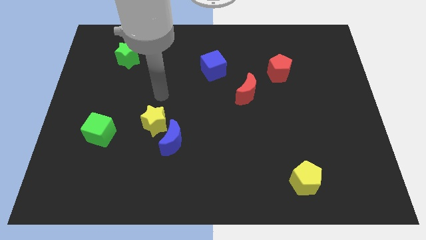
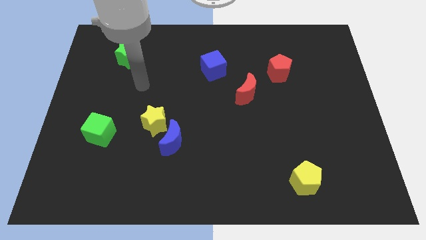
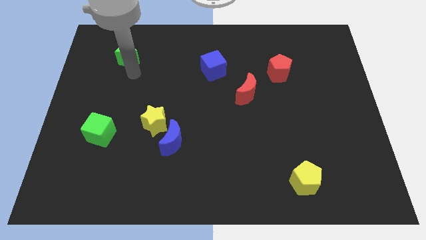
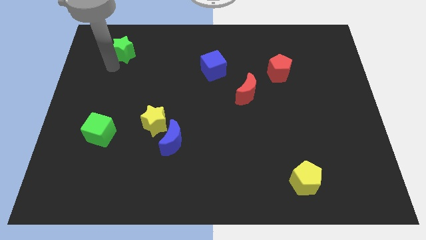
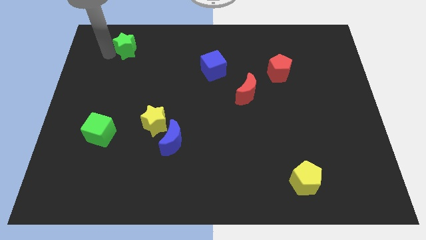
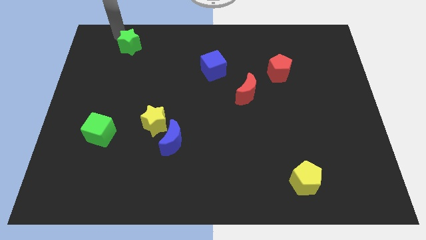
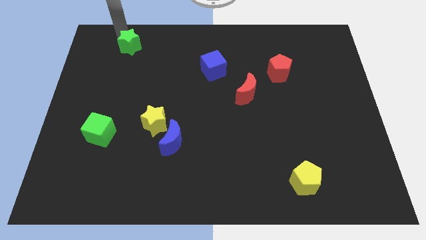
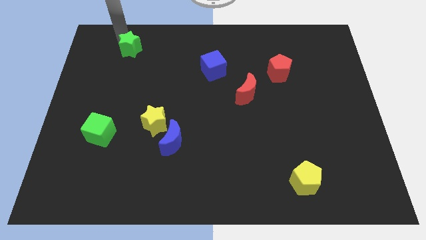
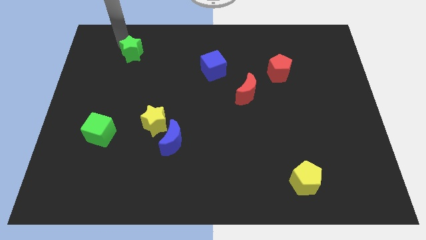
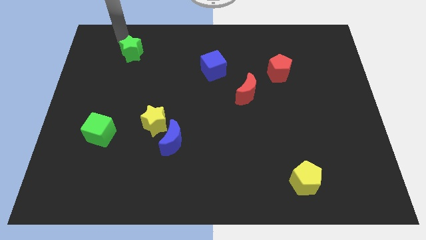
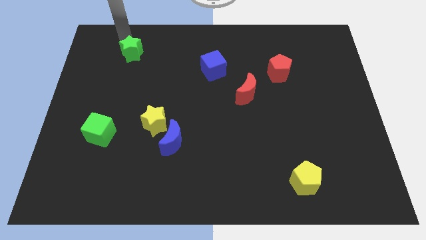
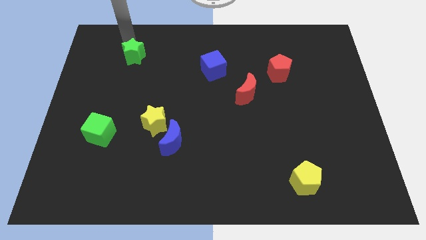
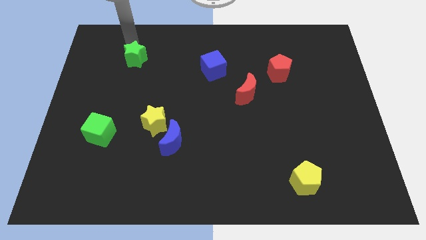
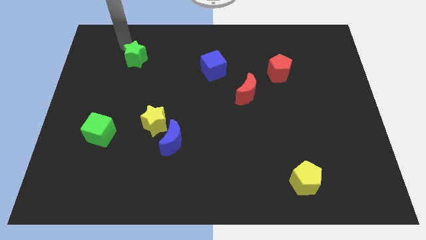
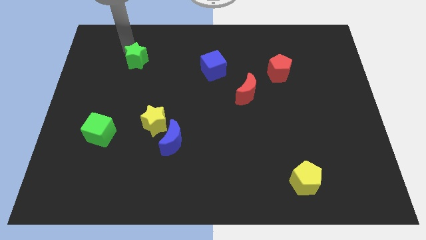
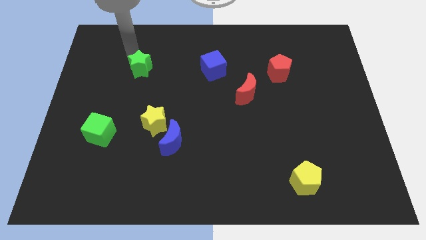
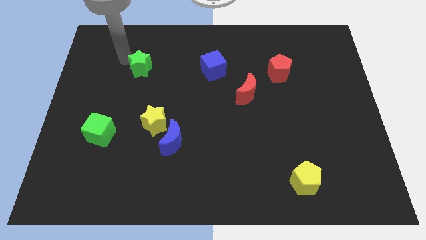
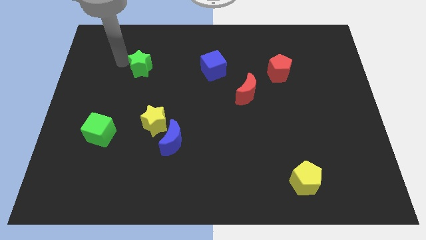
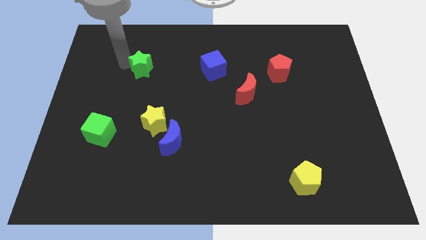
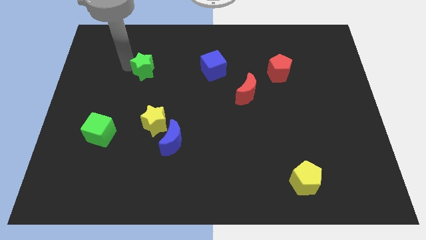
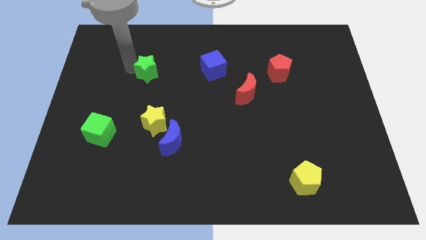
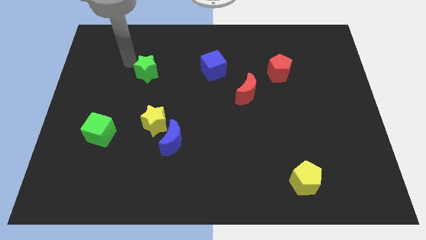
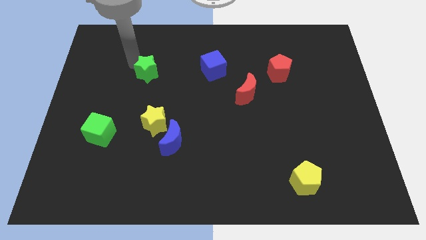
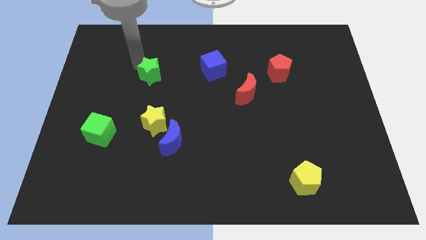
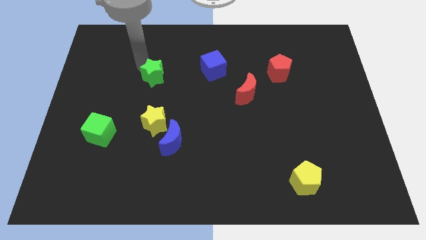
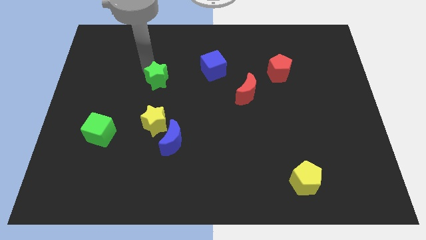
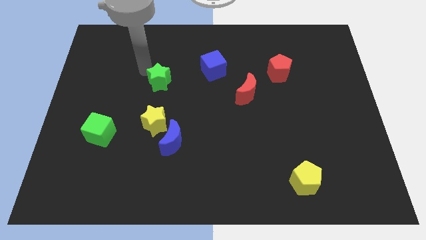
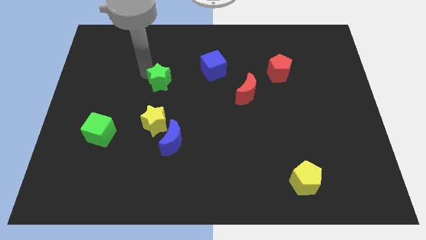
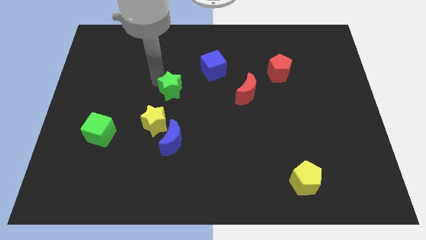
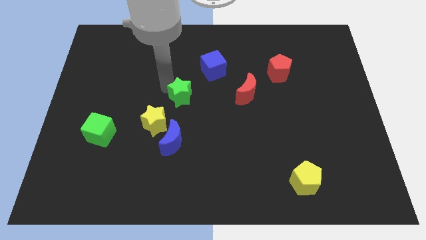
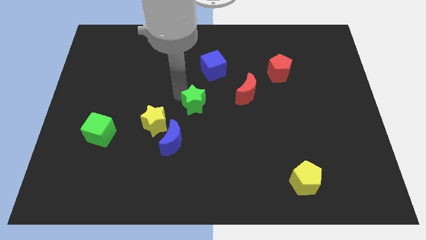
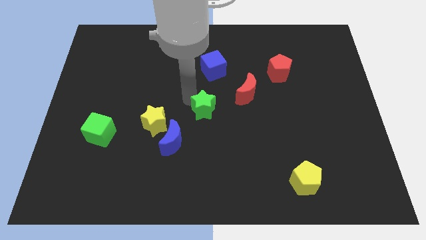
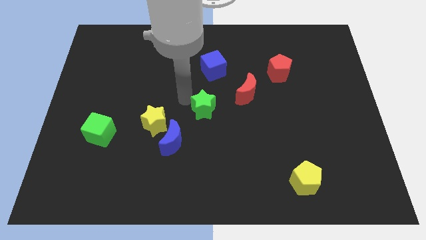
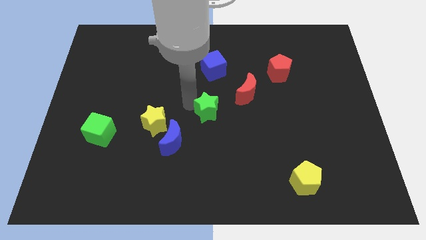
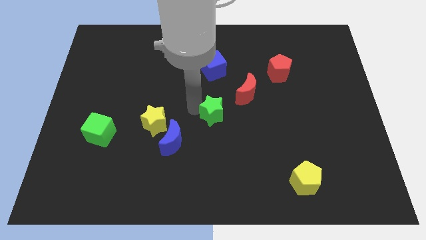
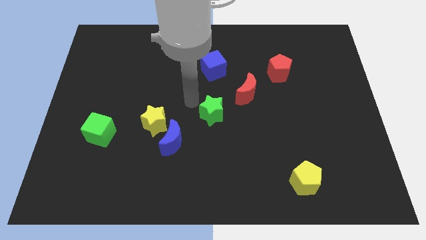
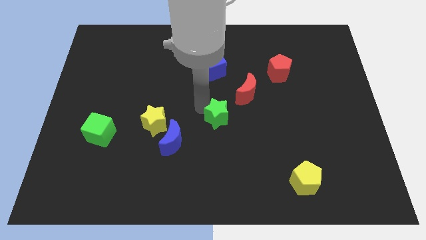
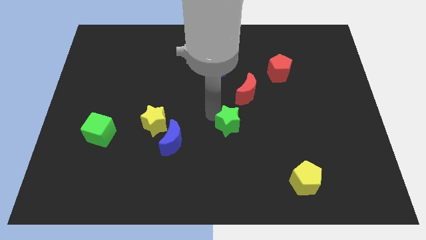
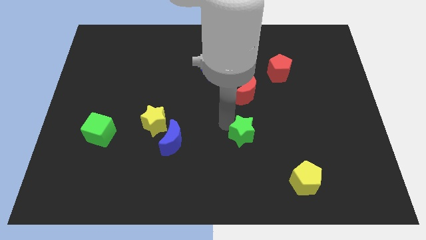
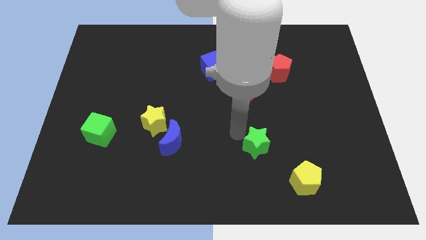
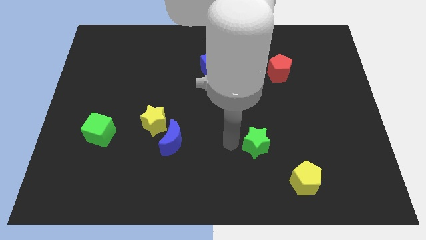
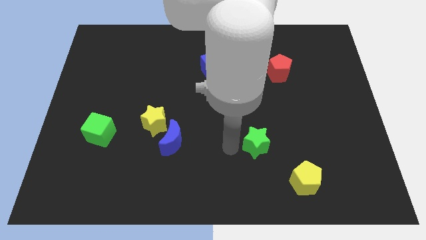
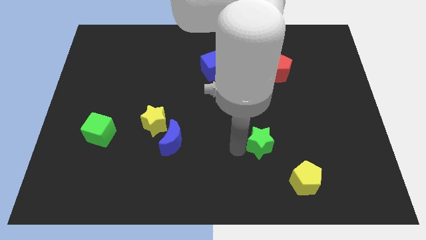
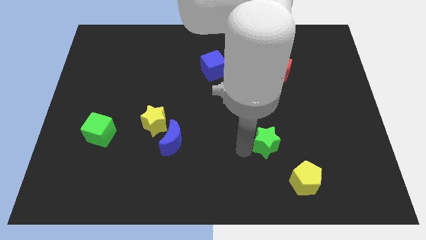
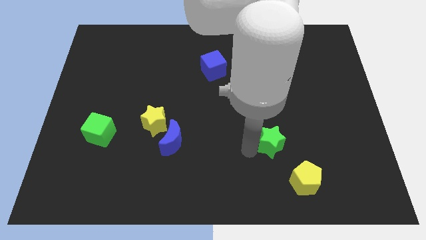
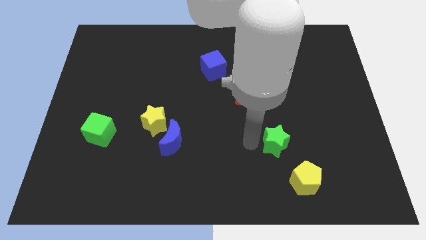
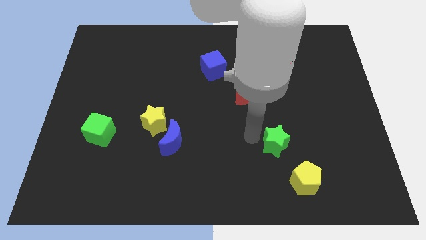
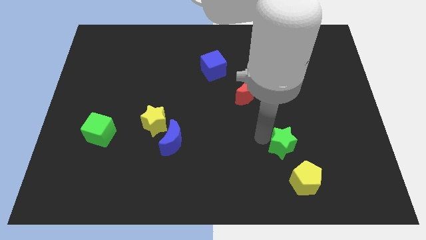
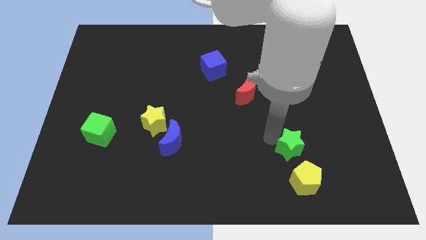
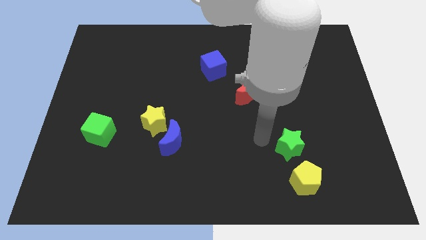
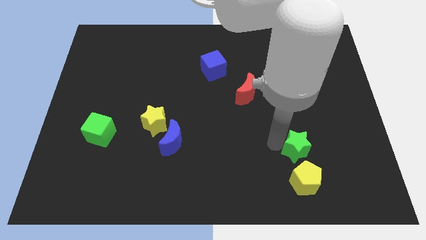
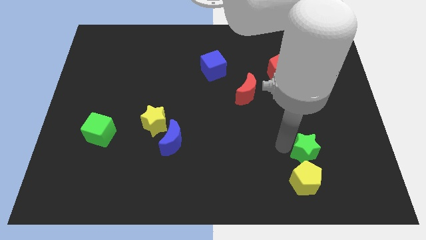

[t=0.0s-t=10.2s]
slide the green star to the top right side of the yellow pentagon

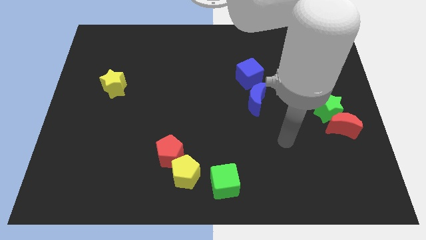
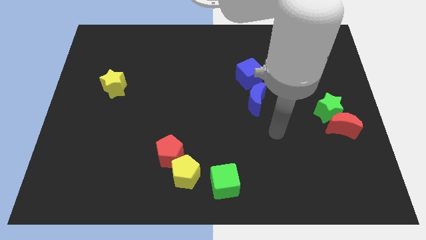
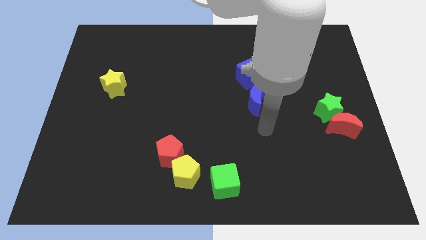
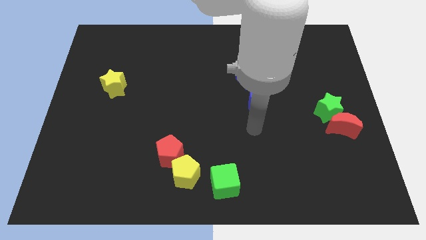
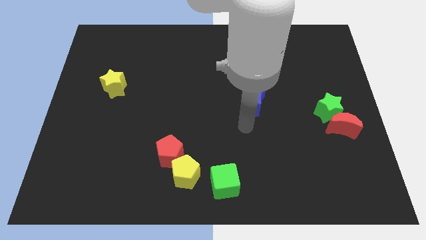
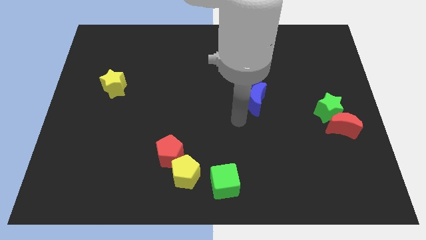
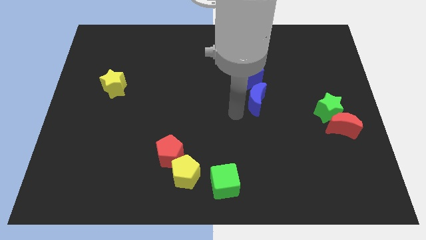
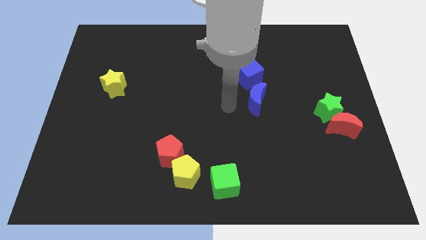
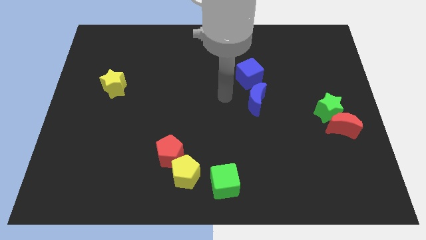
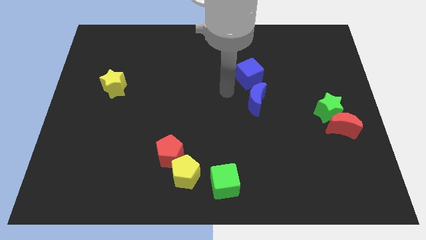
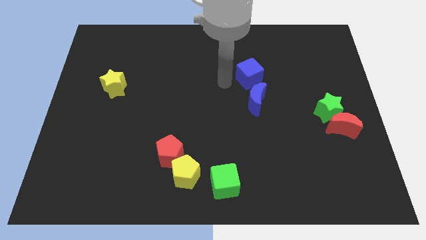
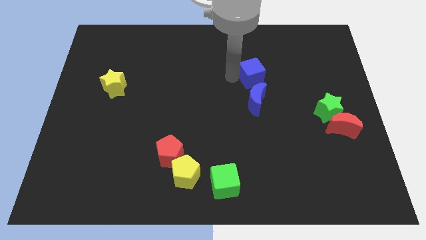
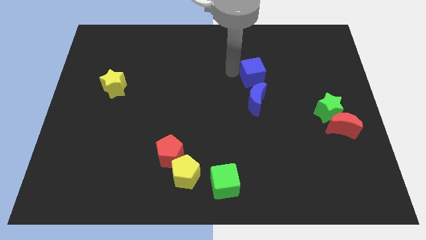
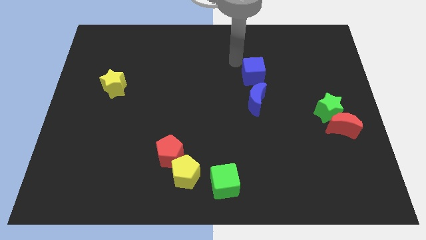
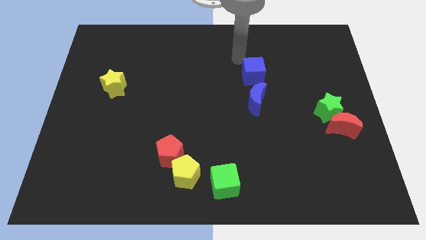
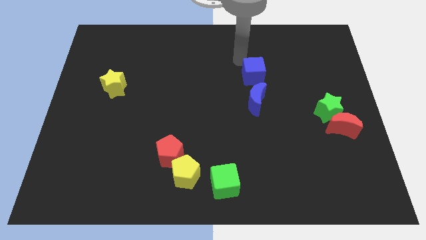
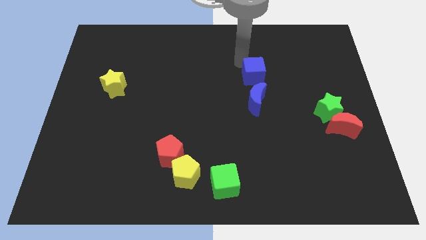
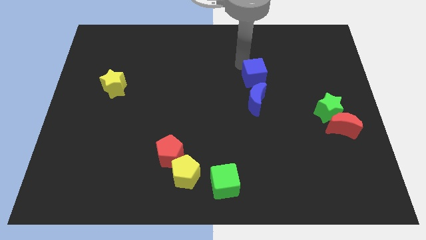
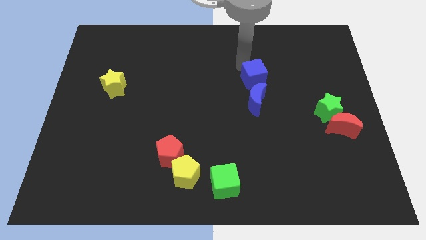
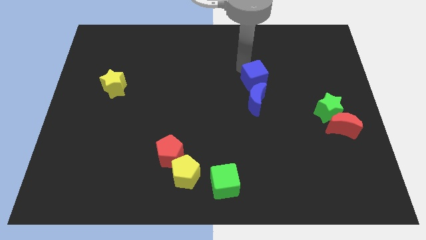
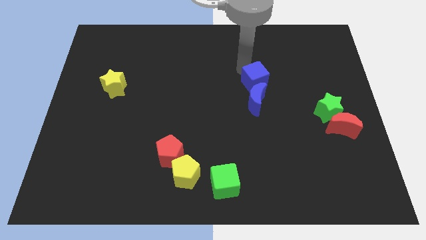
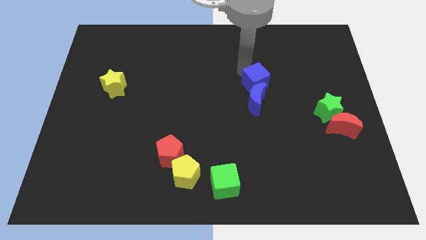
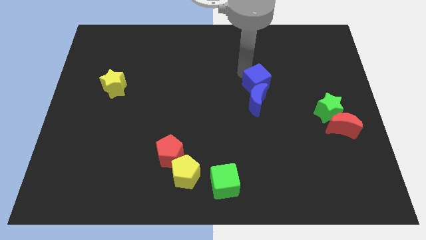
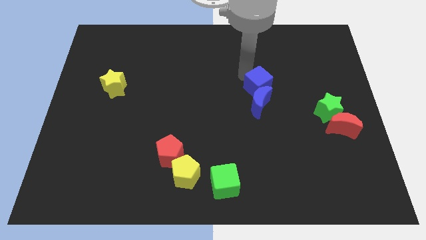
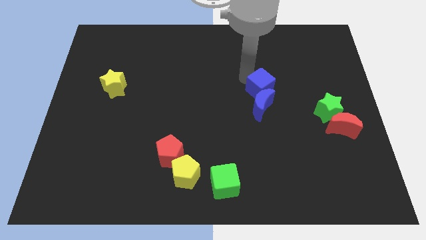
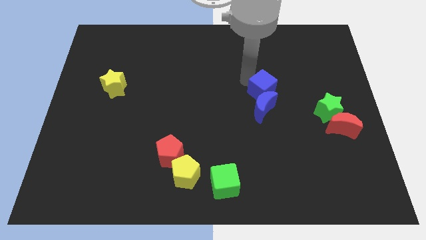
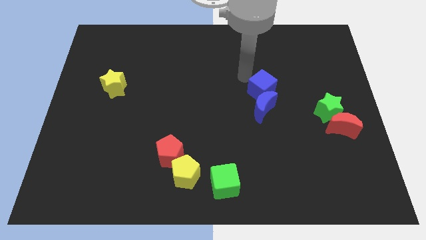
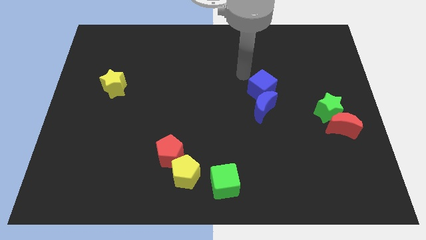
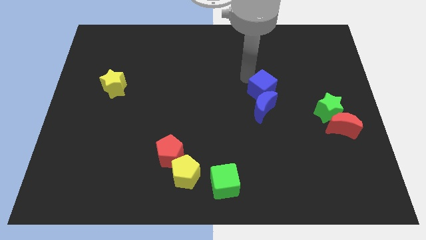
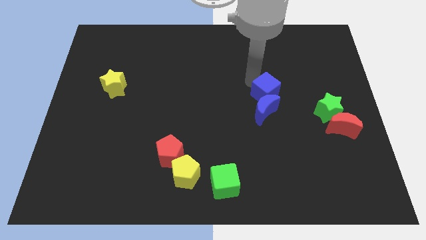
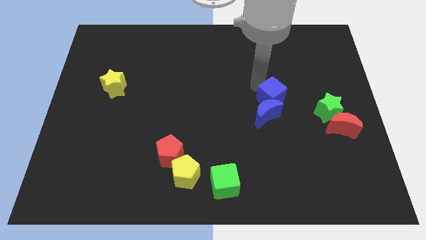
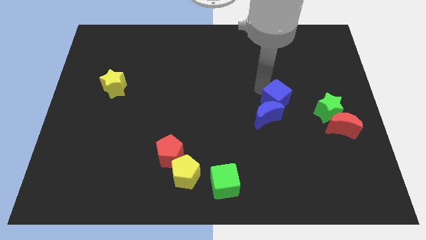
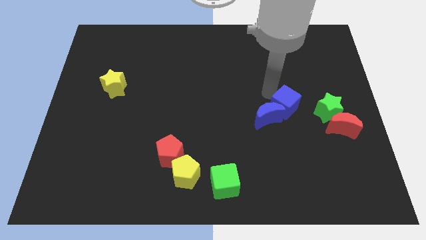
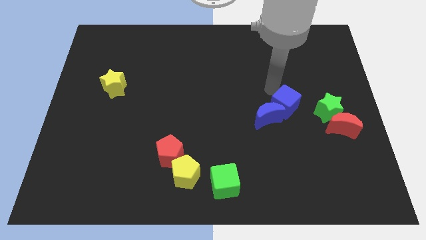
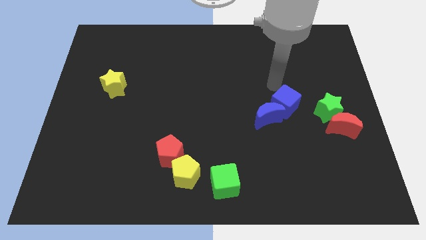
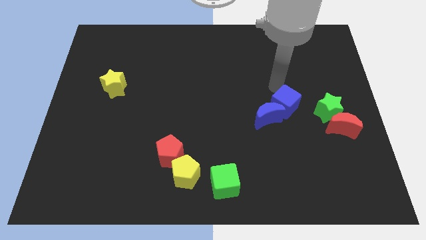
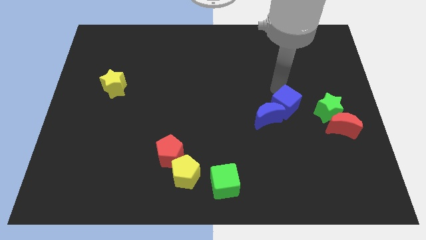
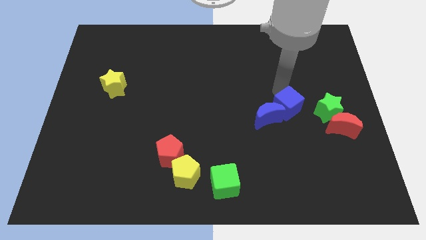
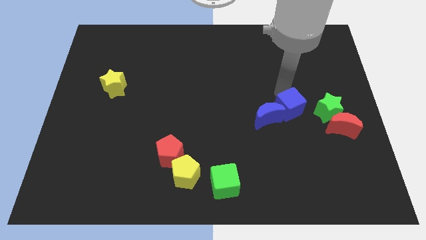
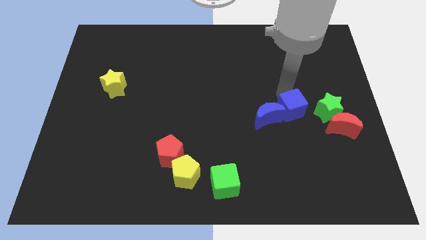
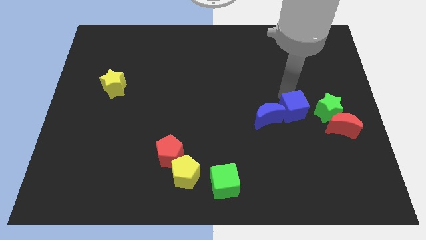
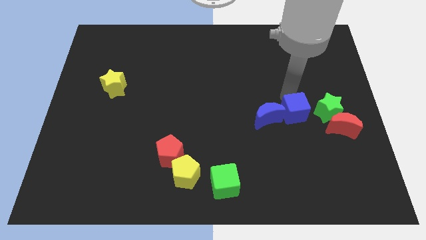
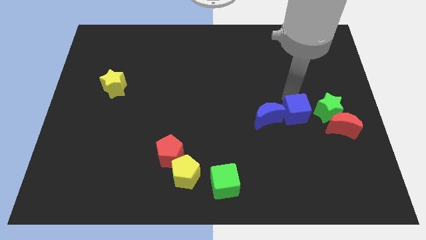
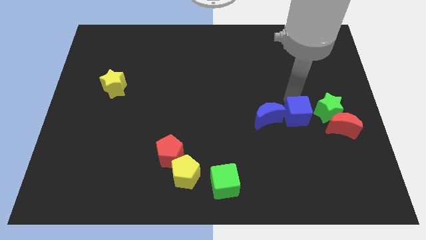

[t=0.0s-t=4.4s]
move the blue cube to the bottom left of the green star
